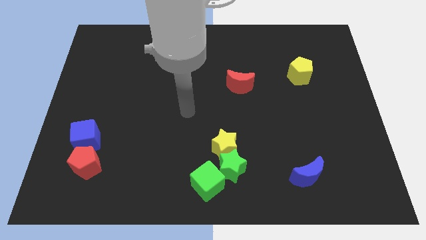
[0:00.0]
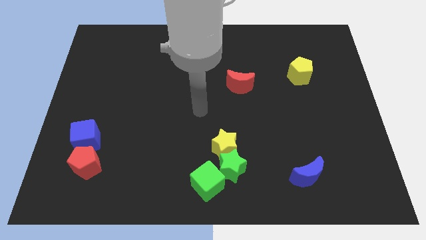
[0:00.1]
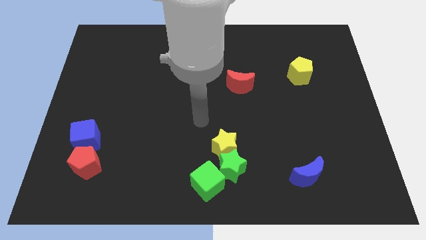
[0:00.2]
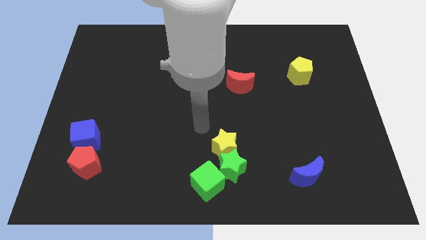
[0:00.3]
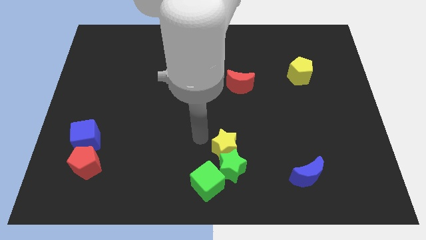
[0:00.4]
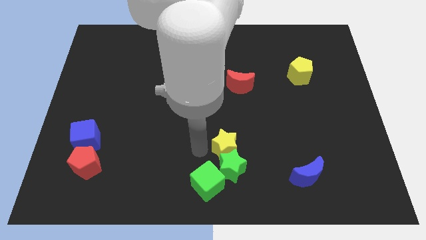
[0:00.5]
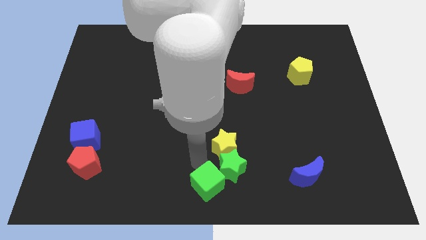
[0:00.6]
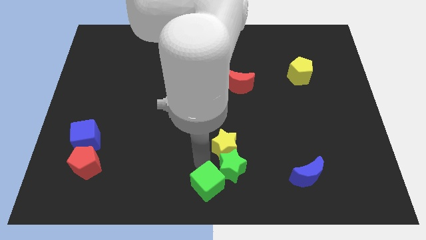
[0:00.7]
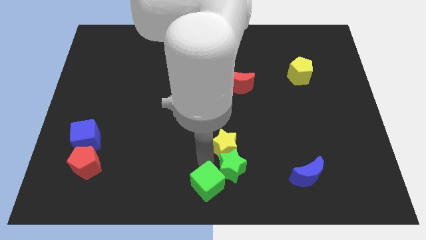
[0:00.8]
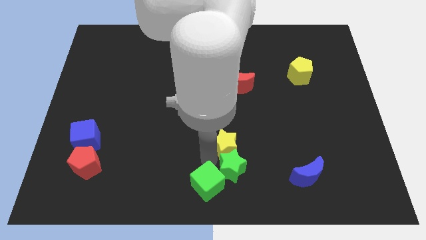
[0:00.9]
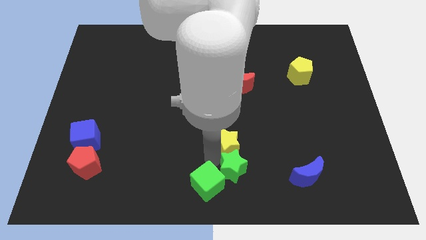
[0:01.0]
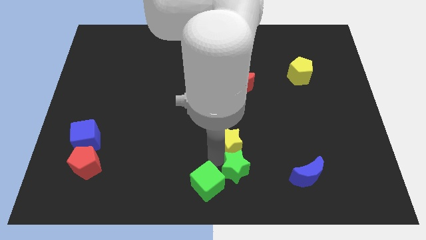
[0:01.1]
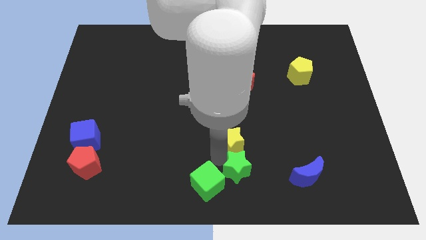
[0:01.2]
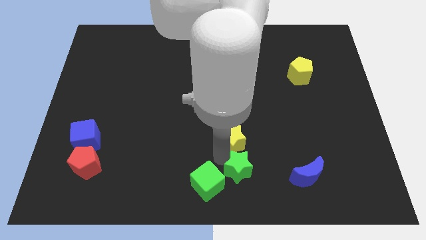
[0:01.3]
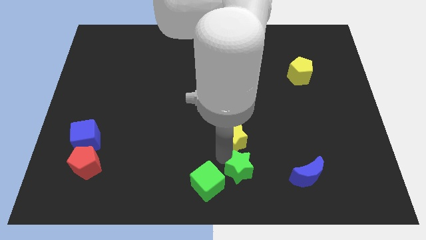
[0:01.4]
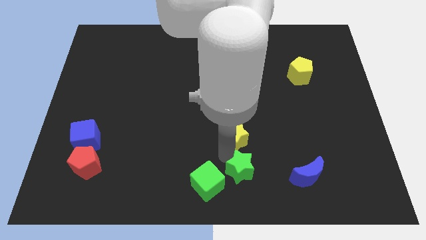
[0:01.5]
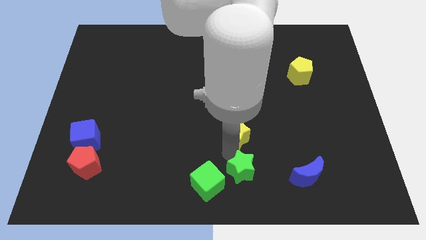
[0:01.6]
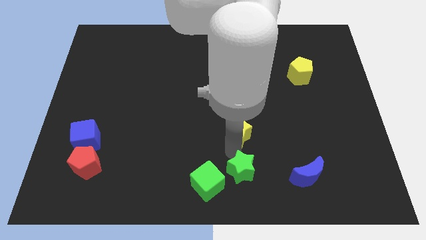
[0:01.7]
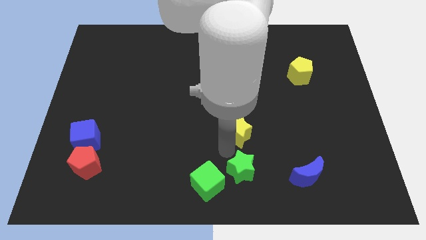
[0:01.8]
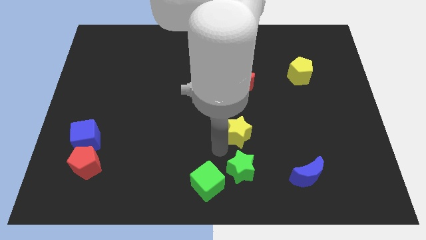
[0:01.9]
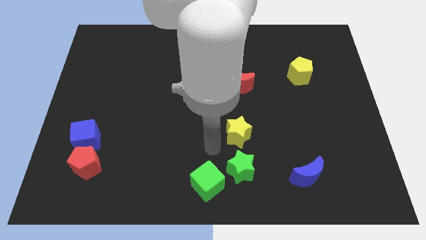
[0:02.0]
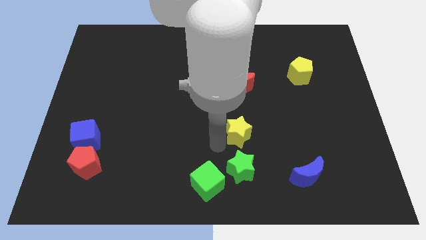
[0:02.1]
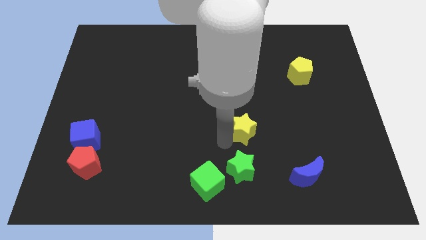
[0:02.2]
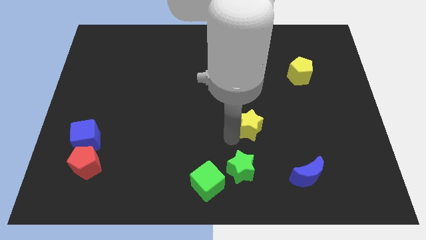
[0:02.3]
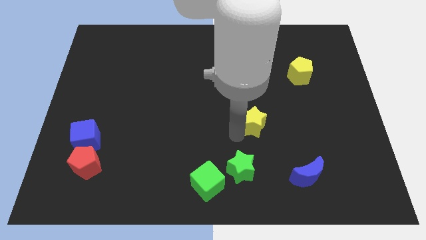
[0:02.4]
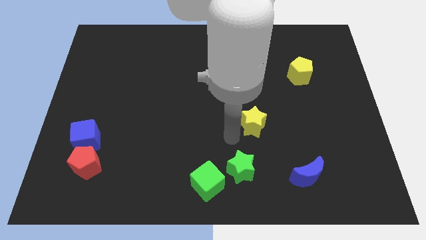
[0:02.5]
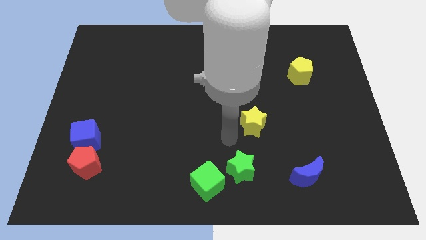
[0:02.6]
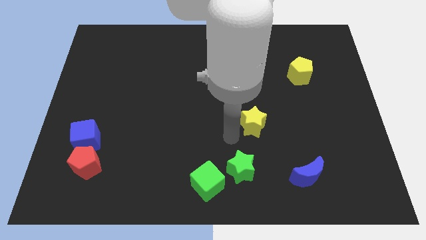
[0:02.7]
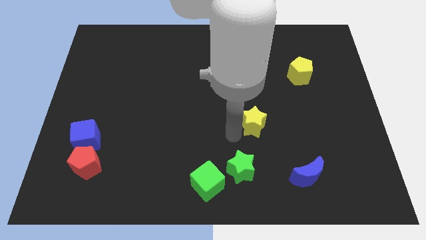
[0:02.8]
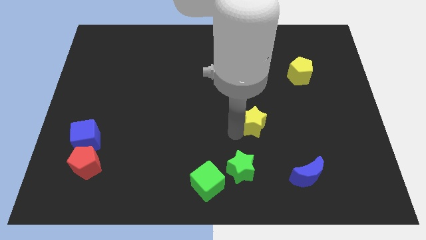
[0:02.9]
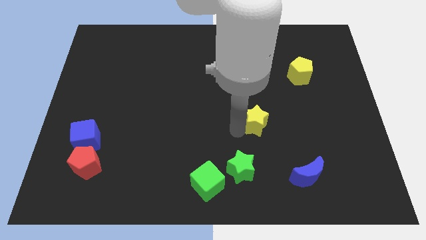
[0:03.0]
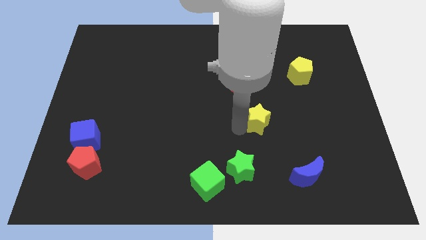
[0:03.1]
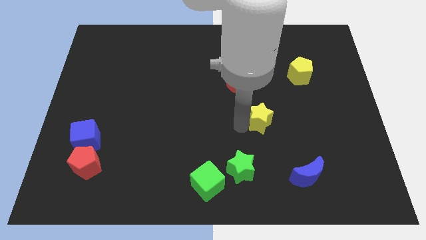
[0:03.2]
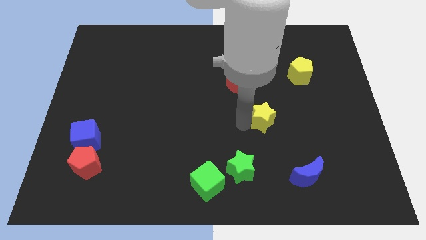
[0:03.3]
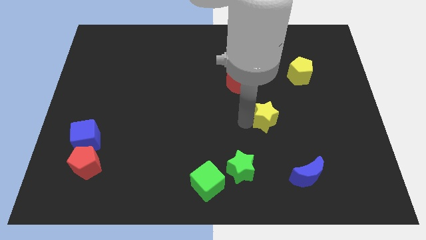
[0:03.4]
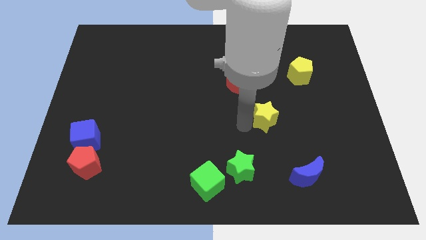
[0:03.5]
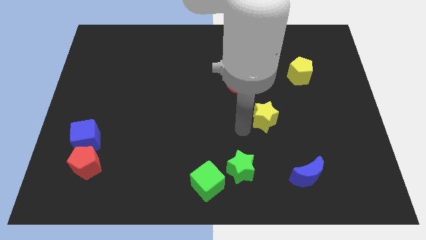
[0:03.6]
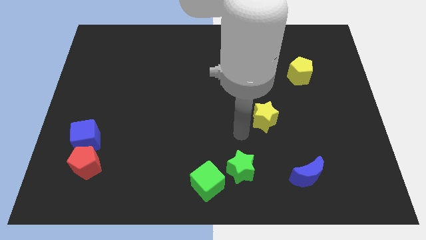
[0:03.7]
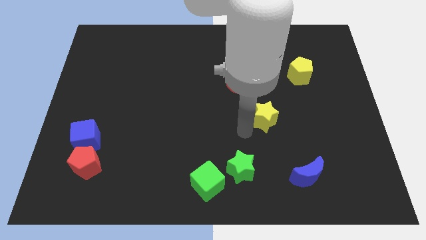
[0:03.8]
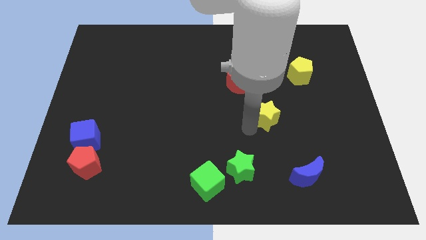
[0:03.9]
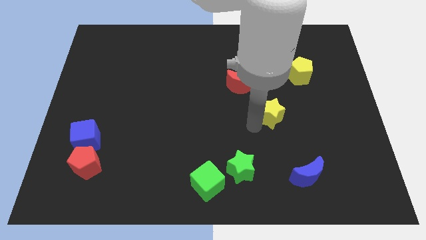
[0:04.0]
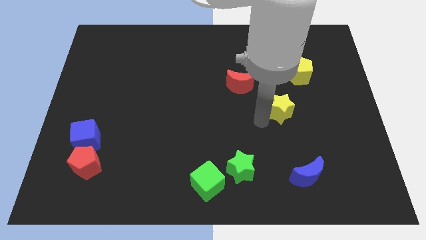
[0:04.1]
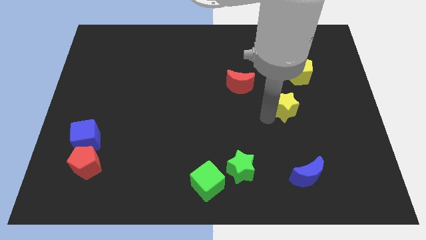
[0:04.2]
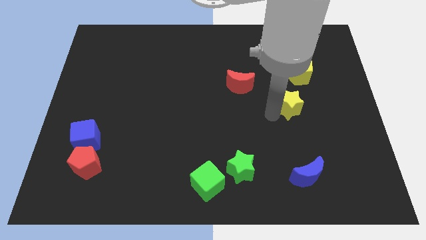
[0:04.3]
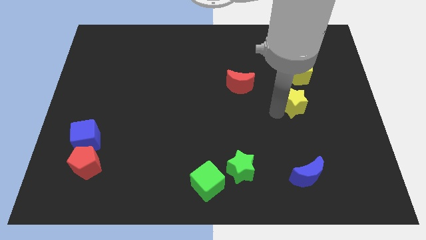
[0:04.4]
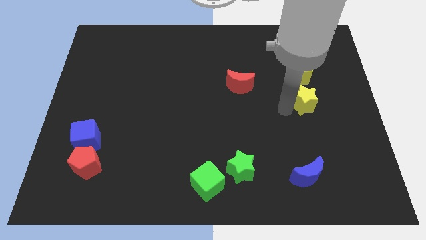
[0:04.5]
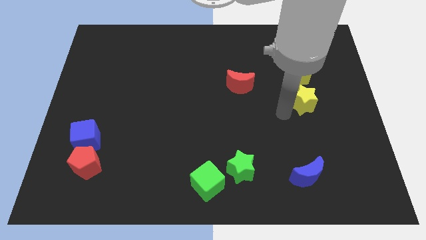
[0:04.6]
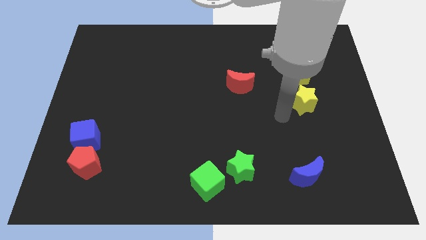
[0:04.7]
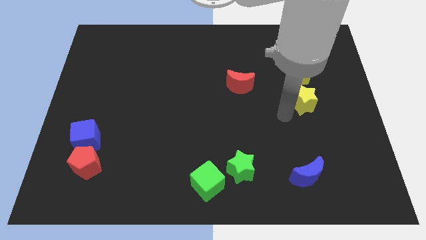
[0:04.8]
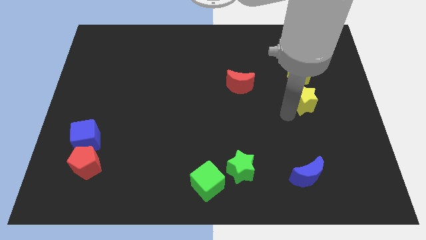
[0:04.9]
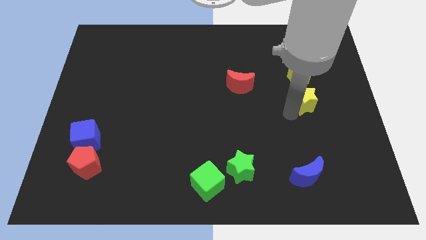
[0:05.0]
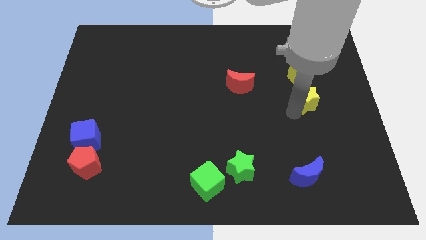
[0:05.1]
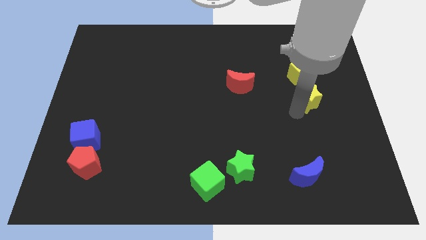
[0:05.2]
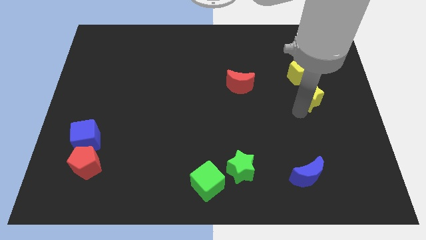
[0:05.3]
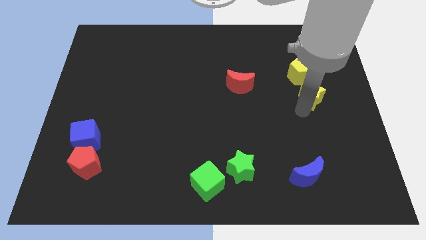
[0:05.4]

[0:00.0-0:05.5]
put the yellow star diagonally down and to the right of the yellow pentagon

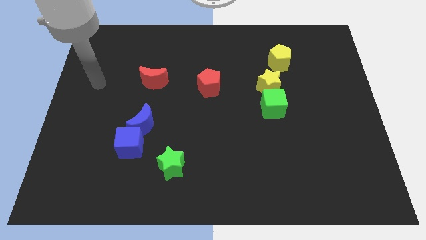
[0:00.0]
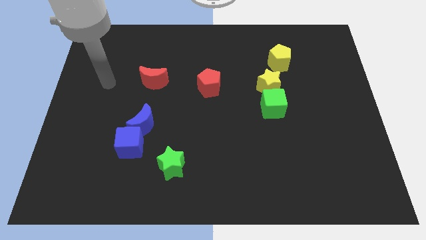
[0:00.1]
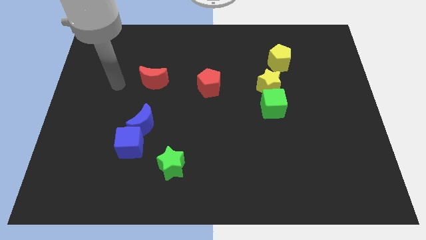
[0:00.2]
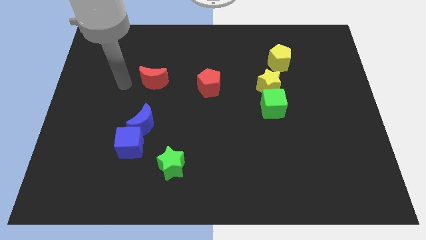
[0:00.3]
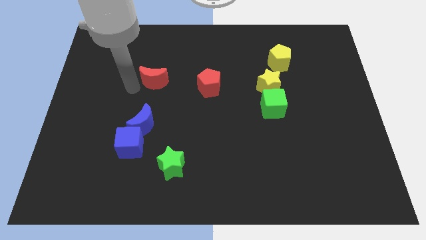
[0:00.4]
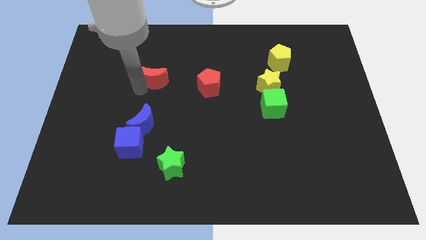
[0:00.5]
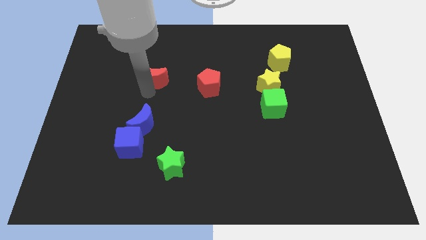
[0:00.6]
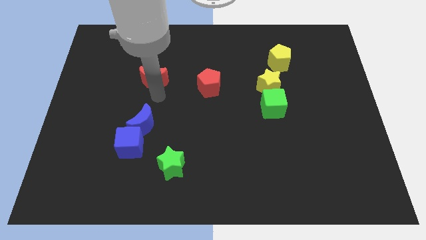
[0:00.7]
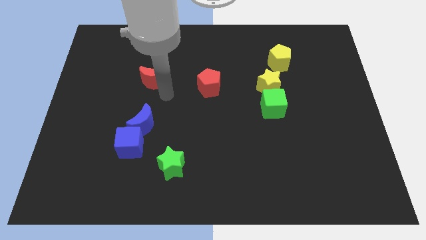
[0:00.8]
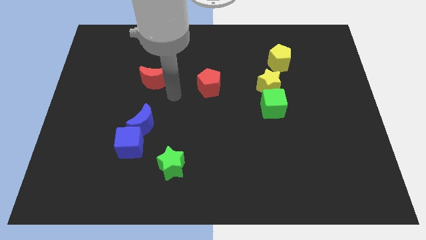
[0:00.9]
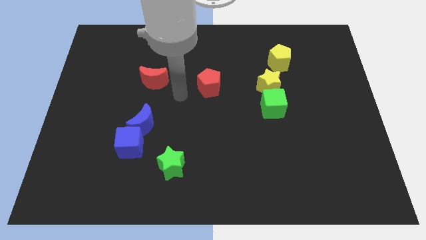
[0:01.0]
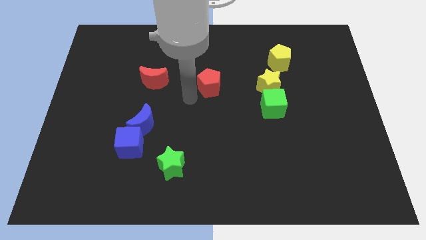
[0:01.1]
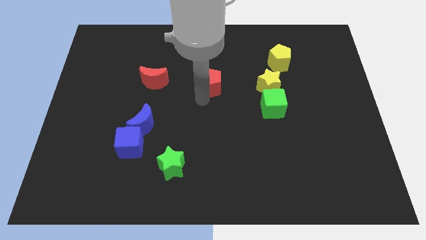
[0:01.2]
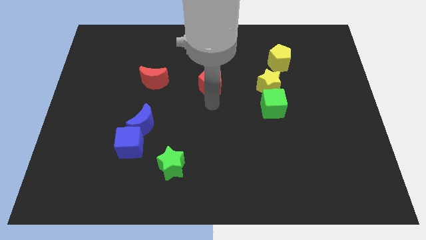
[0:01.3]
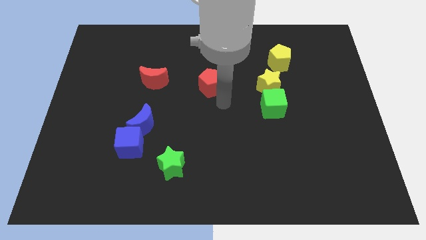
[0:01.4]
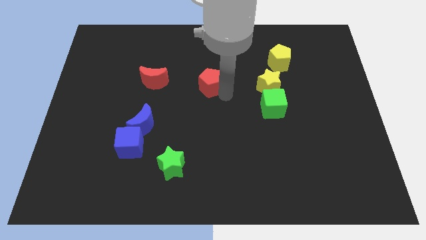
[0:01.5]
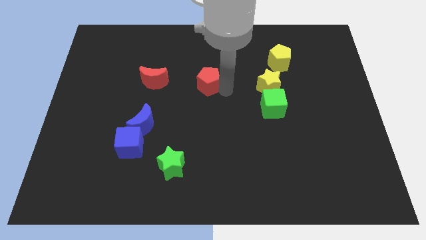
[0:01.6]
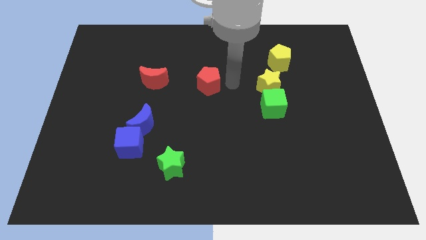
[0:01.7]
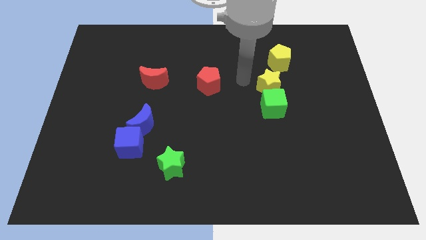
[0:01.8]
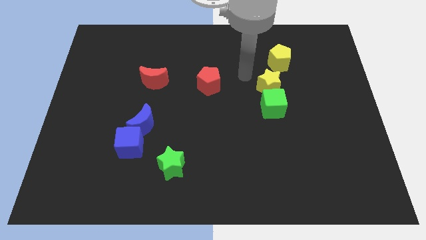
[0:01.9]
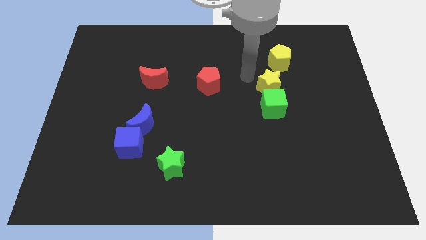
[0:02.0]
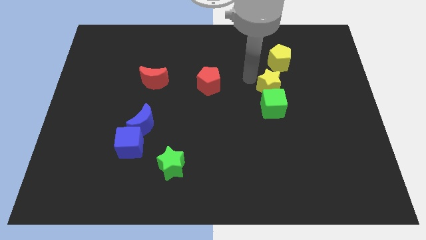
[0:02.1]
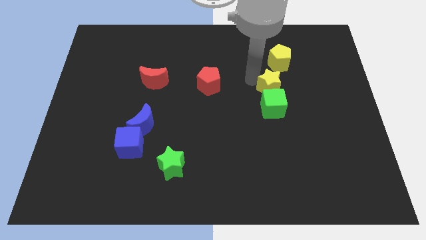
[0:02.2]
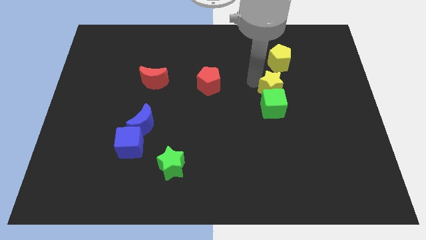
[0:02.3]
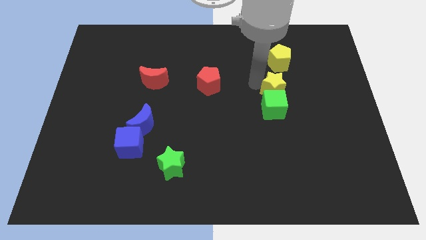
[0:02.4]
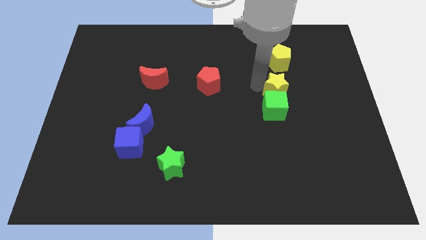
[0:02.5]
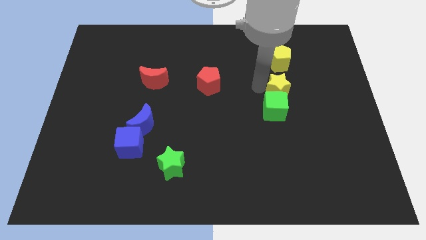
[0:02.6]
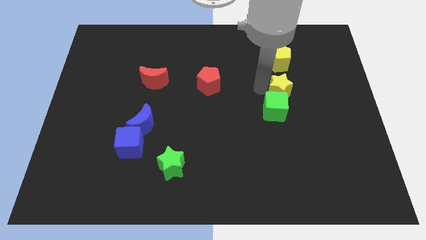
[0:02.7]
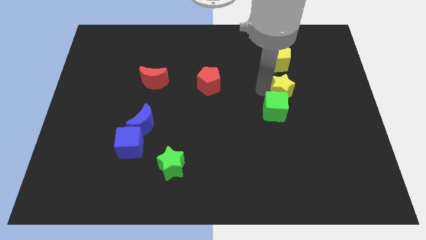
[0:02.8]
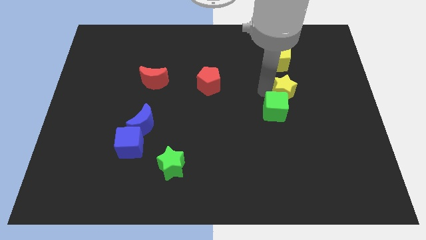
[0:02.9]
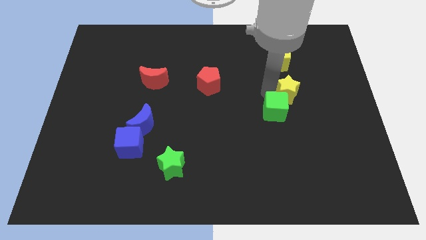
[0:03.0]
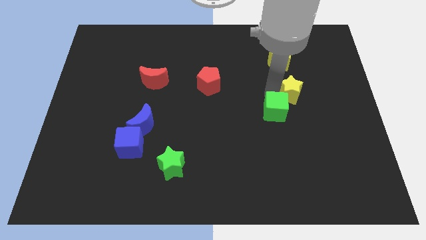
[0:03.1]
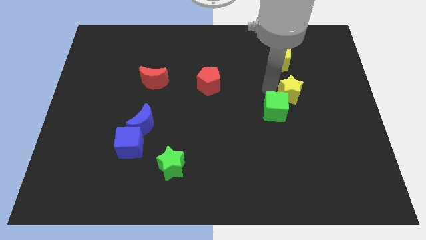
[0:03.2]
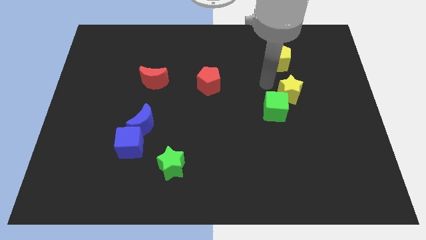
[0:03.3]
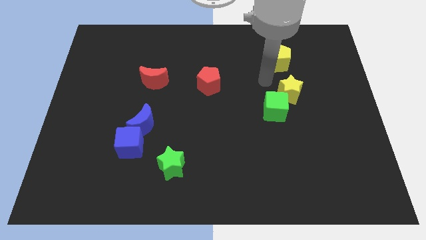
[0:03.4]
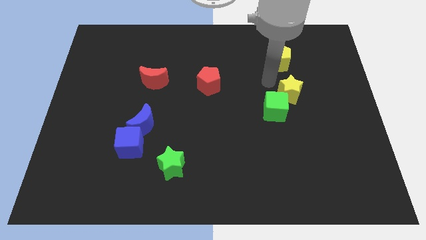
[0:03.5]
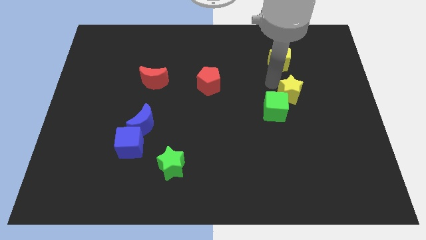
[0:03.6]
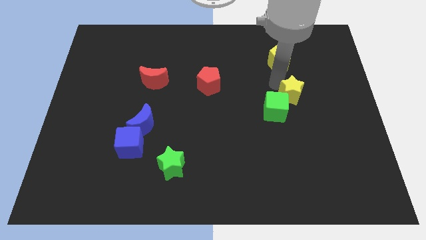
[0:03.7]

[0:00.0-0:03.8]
move the yellow star to the right side of the green cube
